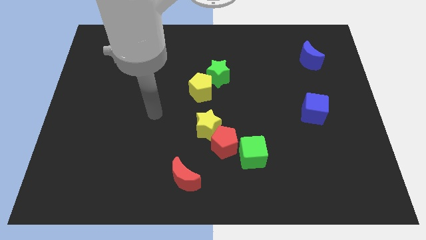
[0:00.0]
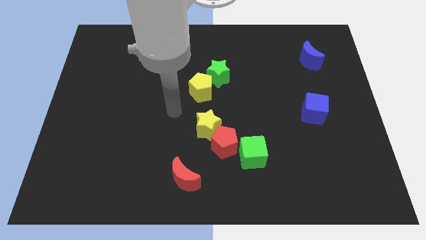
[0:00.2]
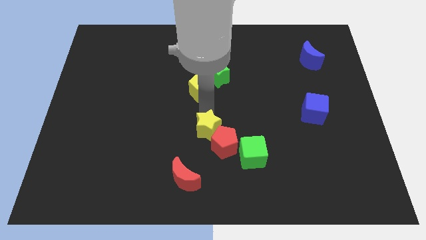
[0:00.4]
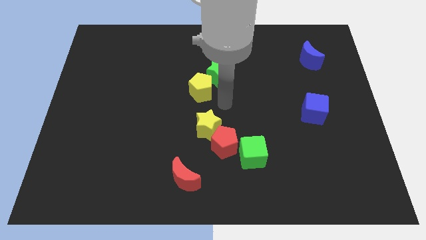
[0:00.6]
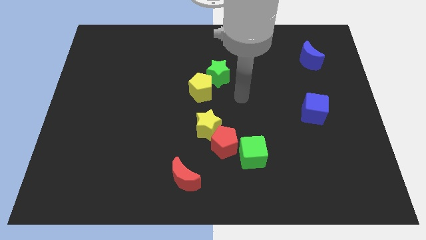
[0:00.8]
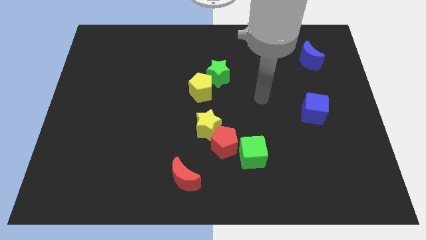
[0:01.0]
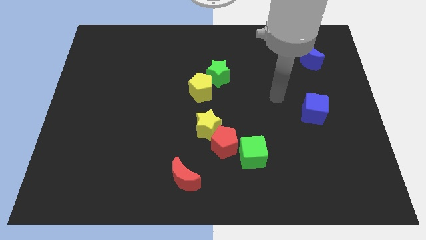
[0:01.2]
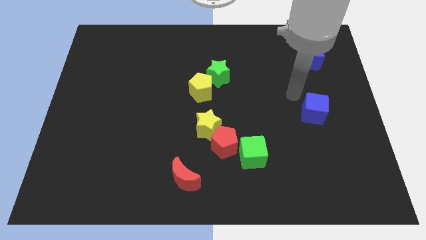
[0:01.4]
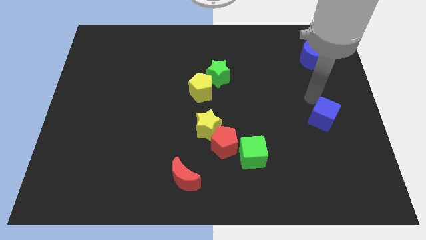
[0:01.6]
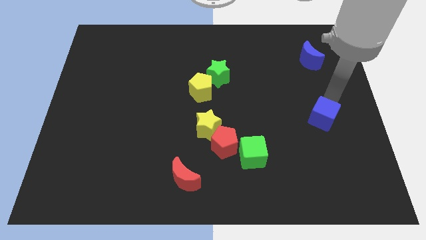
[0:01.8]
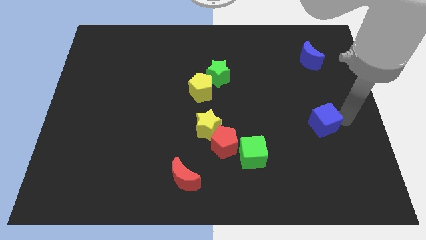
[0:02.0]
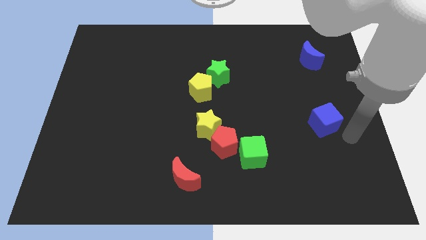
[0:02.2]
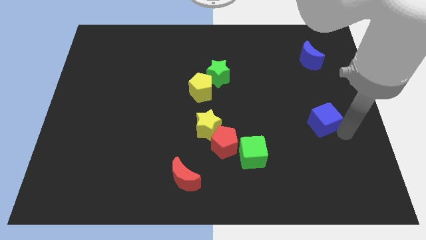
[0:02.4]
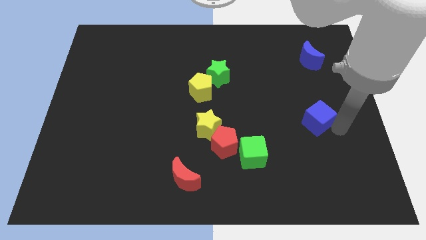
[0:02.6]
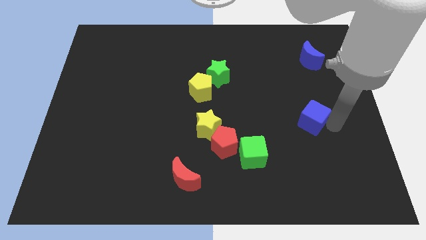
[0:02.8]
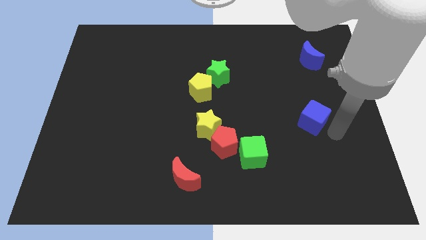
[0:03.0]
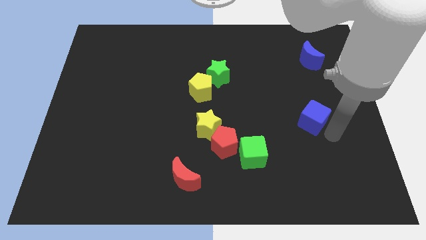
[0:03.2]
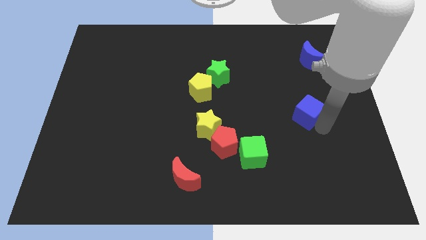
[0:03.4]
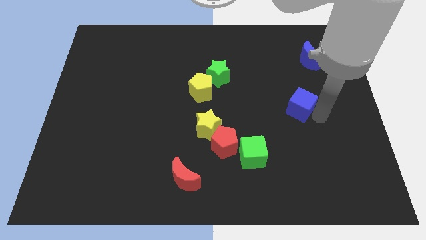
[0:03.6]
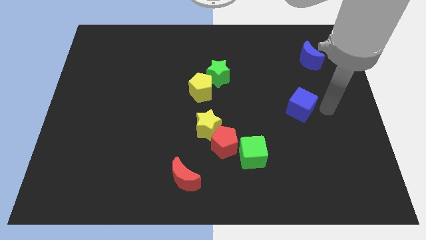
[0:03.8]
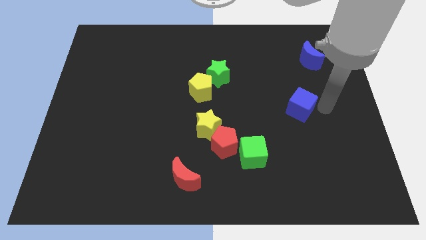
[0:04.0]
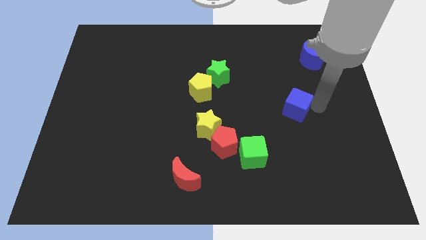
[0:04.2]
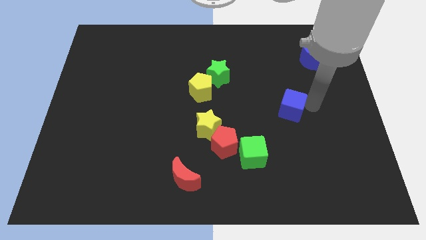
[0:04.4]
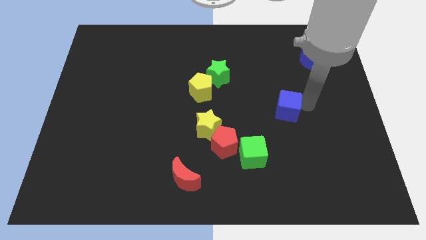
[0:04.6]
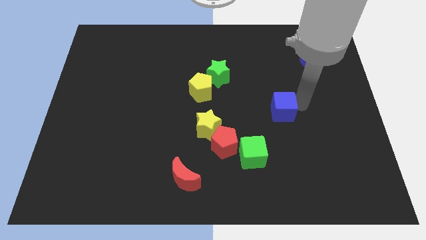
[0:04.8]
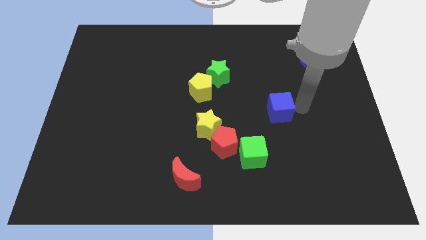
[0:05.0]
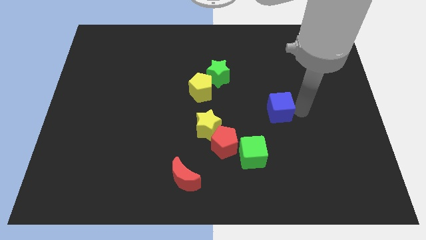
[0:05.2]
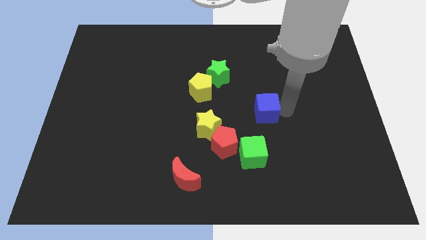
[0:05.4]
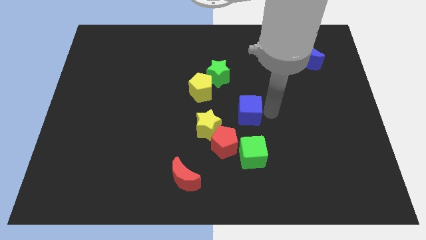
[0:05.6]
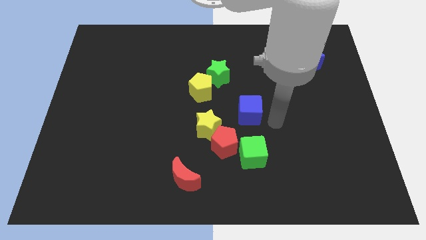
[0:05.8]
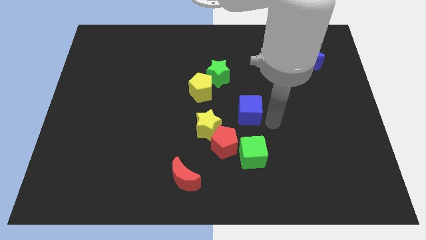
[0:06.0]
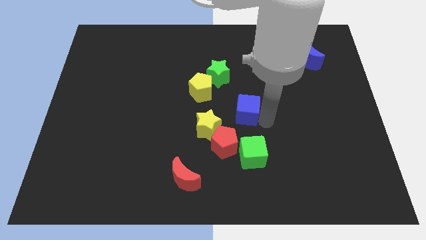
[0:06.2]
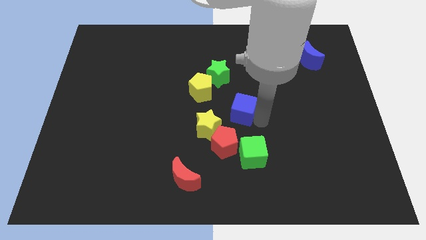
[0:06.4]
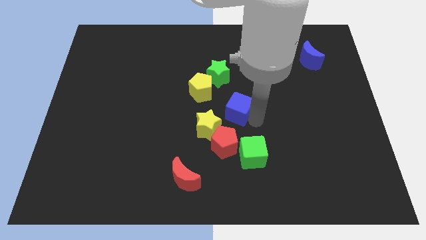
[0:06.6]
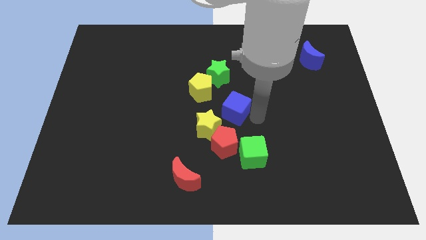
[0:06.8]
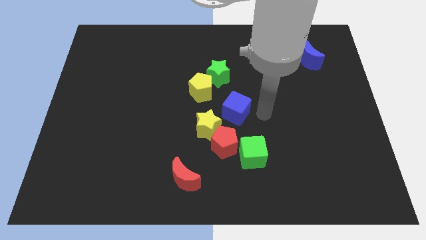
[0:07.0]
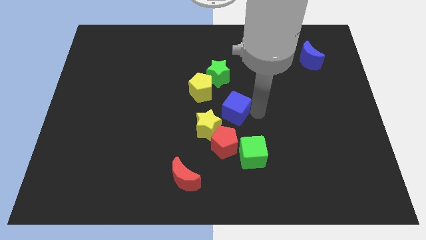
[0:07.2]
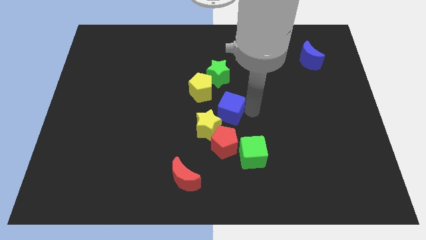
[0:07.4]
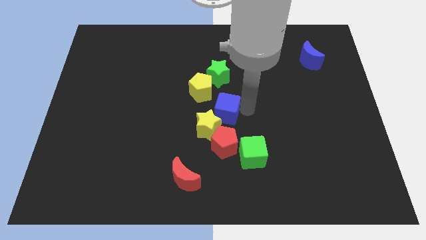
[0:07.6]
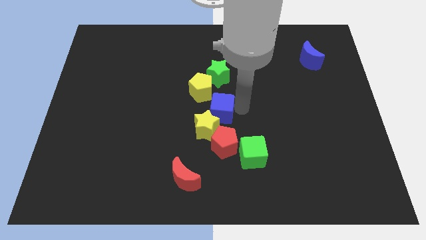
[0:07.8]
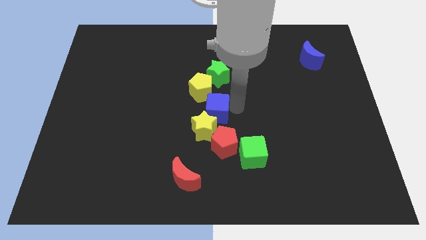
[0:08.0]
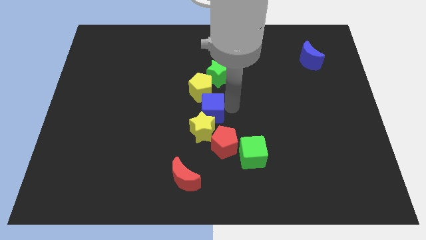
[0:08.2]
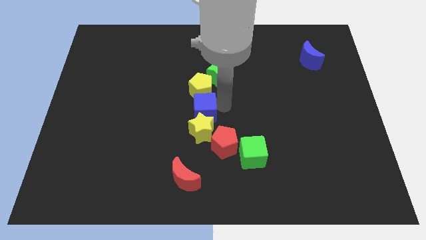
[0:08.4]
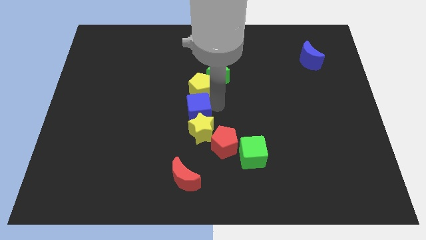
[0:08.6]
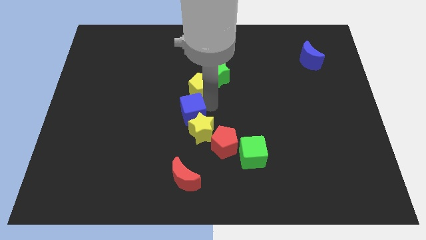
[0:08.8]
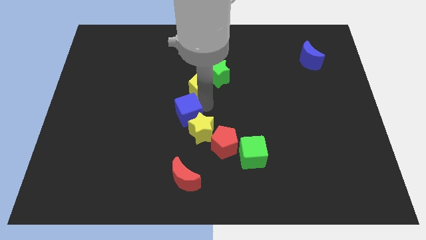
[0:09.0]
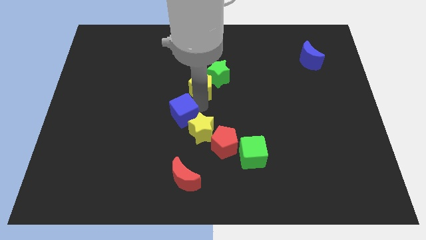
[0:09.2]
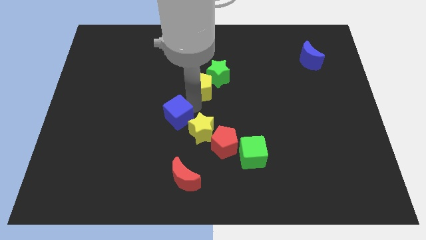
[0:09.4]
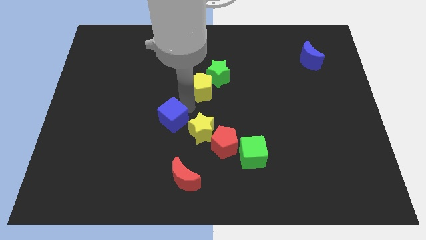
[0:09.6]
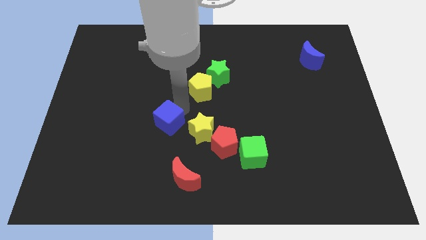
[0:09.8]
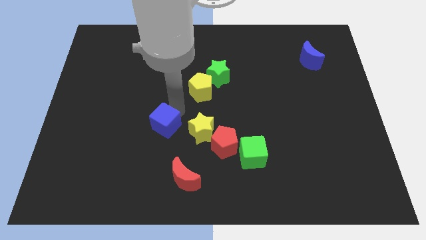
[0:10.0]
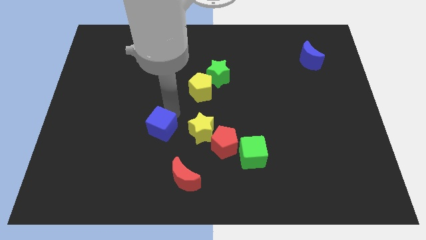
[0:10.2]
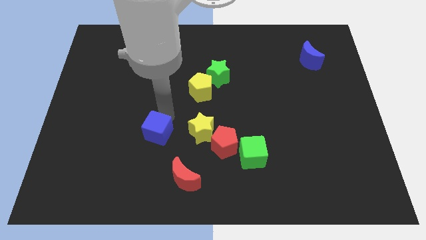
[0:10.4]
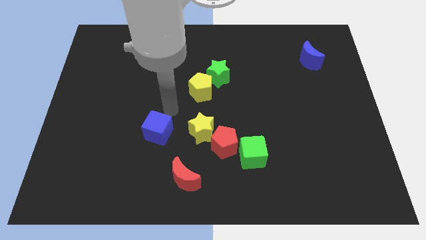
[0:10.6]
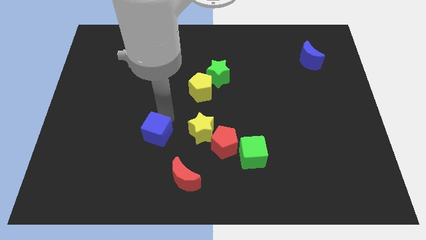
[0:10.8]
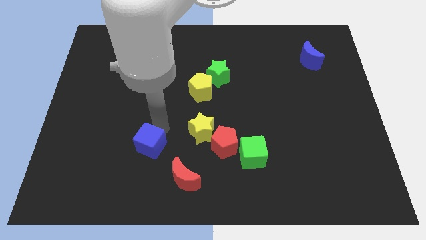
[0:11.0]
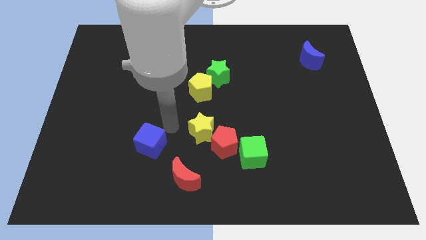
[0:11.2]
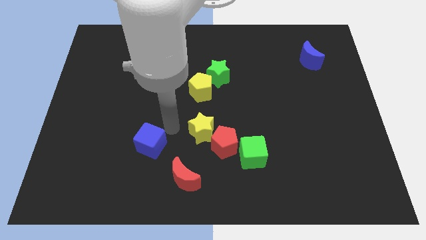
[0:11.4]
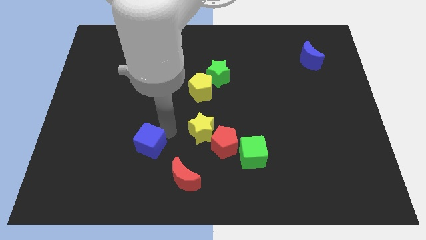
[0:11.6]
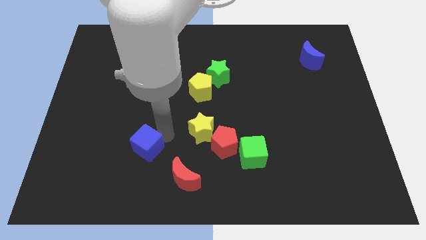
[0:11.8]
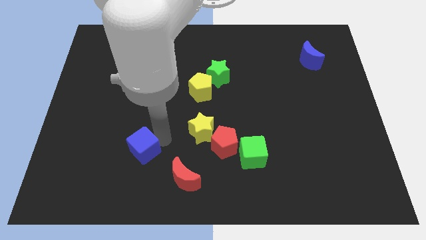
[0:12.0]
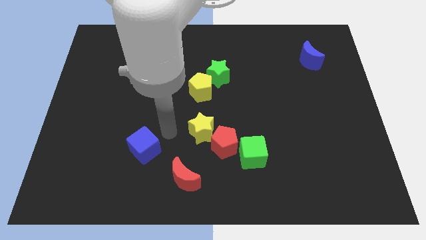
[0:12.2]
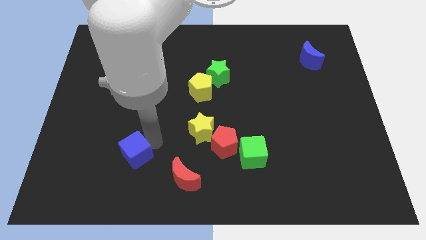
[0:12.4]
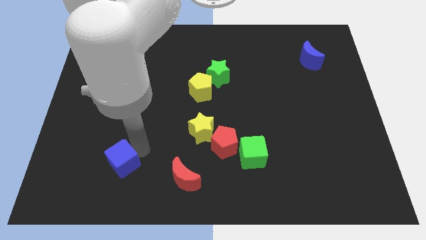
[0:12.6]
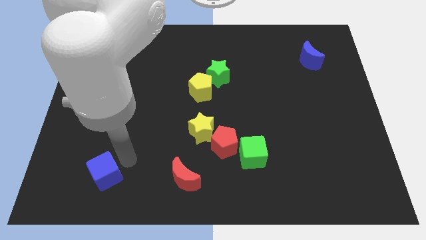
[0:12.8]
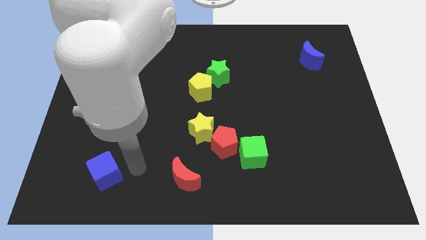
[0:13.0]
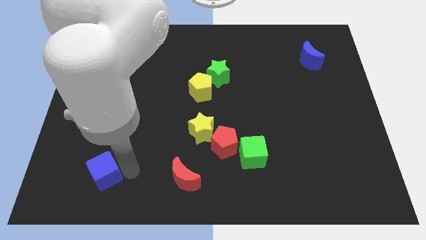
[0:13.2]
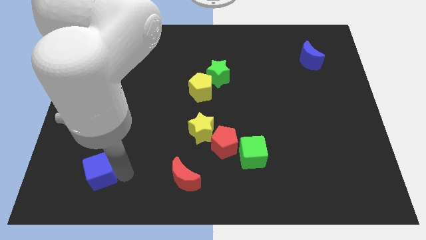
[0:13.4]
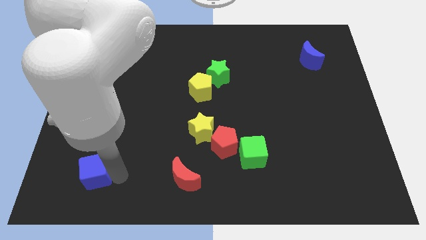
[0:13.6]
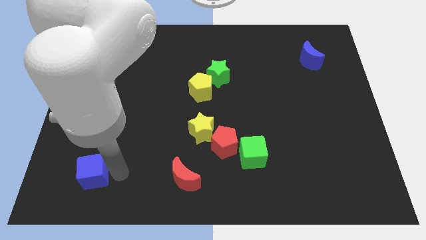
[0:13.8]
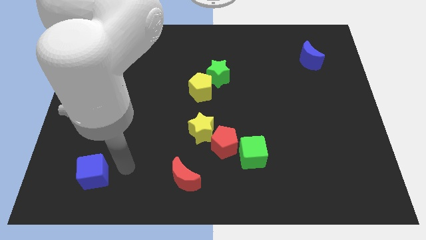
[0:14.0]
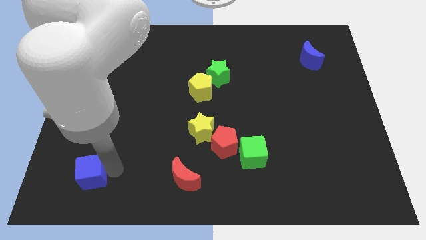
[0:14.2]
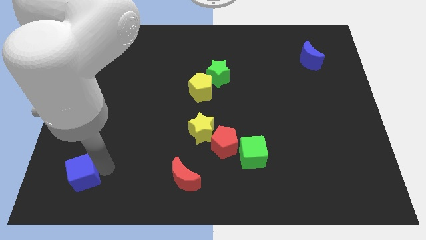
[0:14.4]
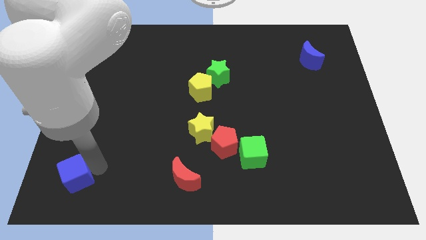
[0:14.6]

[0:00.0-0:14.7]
push the blue cube to the bottom left of the board

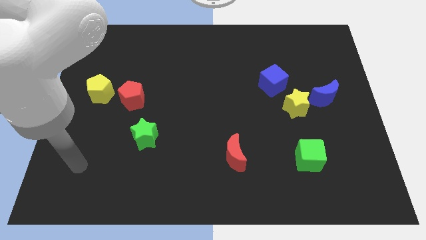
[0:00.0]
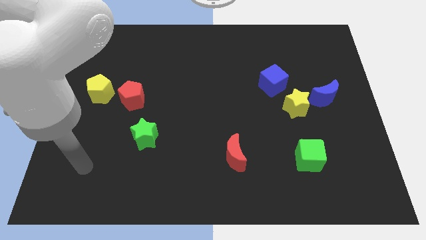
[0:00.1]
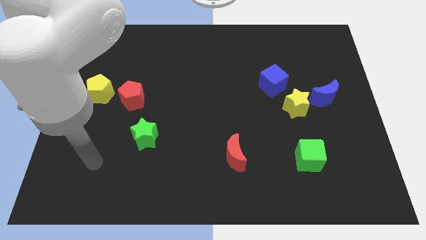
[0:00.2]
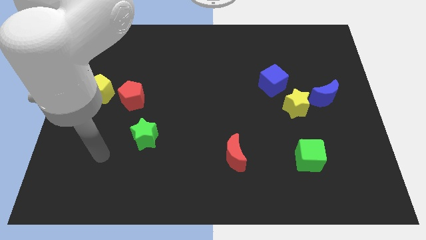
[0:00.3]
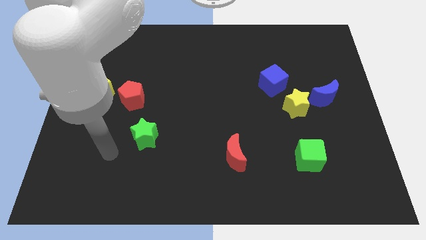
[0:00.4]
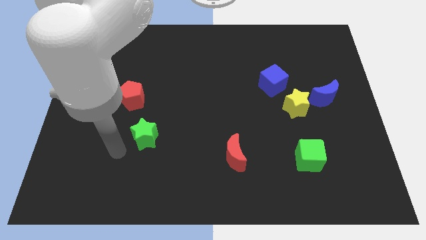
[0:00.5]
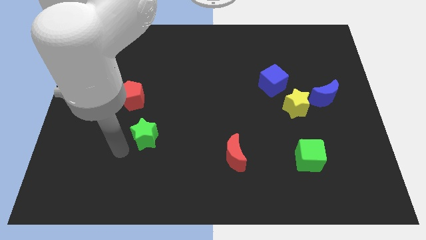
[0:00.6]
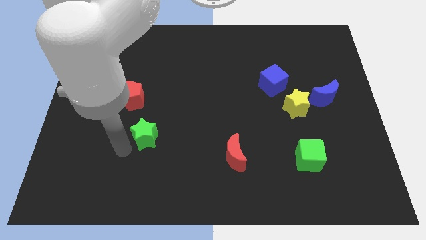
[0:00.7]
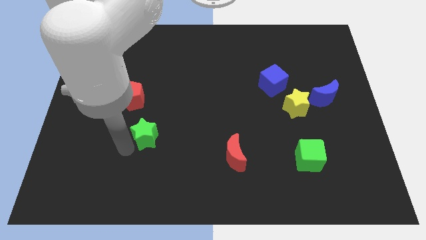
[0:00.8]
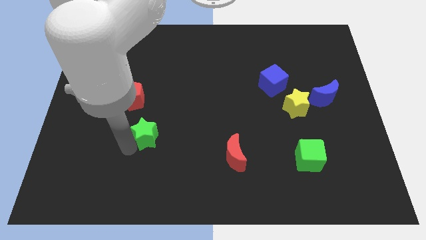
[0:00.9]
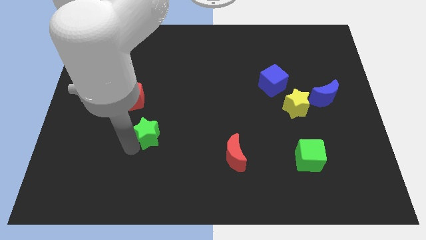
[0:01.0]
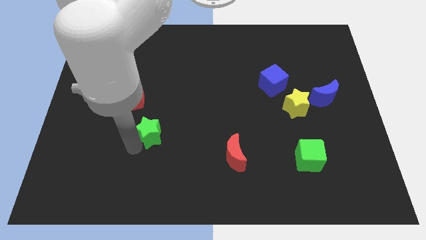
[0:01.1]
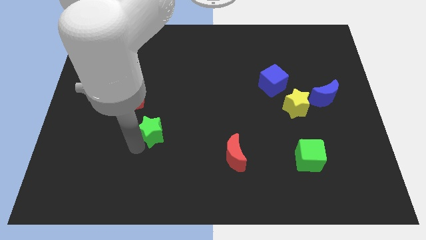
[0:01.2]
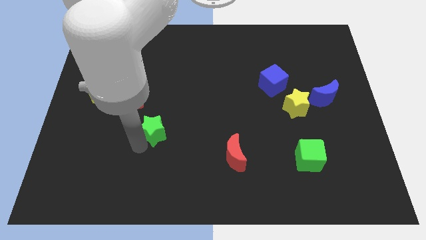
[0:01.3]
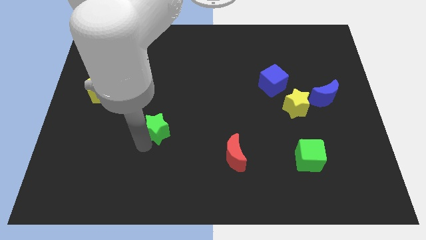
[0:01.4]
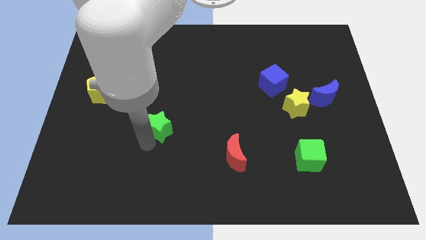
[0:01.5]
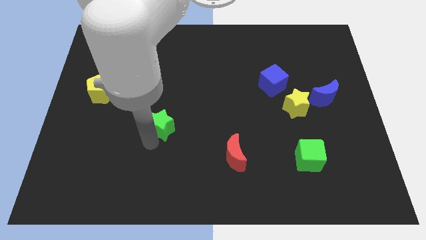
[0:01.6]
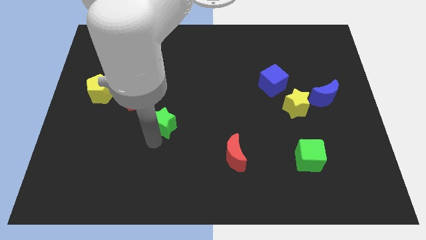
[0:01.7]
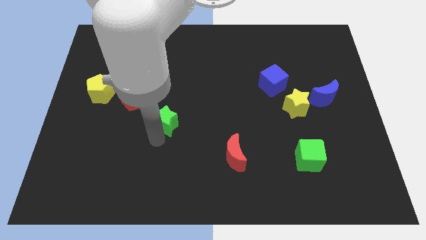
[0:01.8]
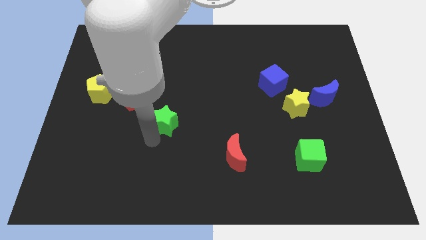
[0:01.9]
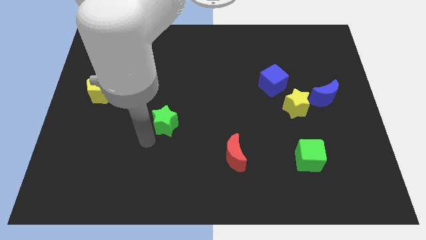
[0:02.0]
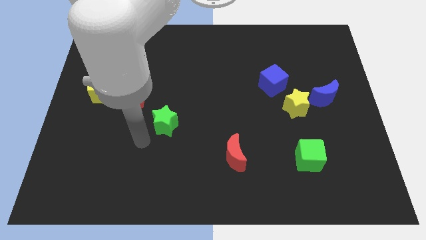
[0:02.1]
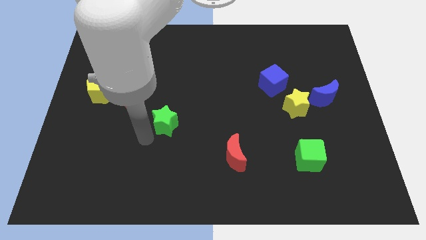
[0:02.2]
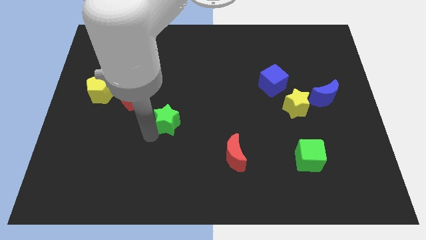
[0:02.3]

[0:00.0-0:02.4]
push the green star to the middle
